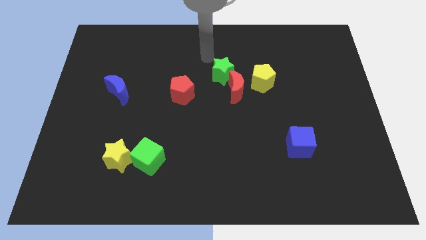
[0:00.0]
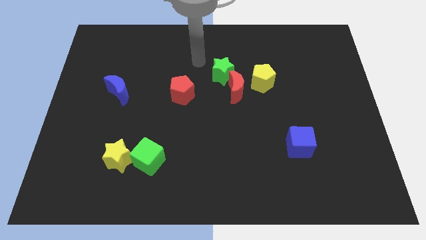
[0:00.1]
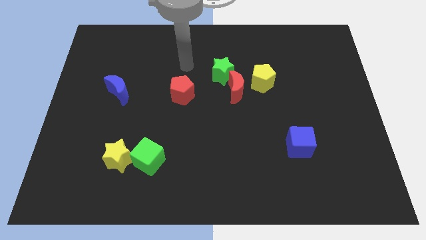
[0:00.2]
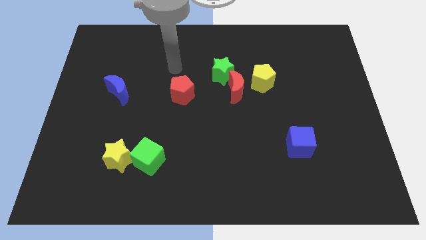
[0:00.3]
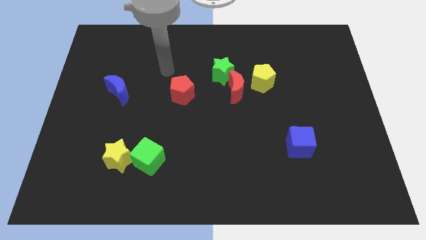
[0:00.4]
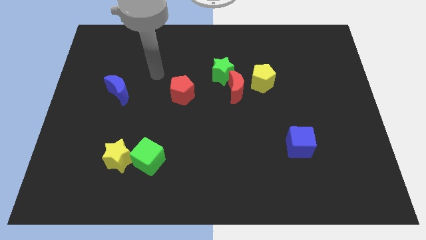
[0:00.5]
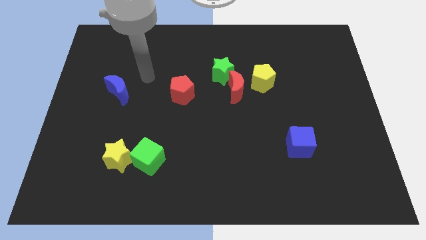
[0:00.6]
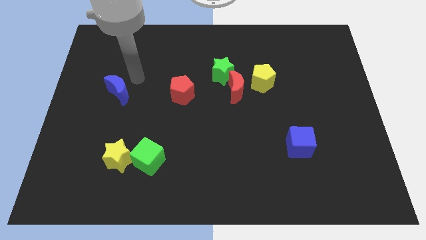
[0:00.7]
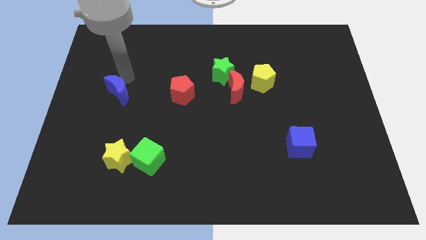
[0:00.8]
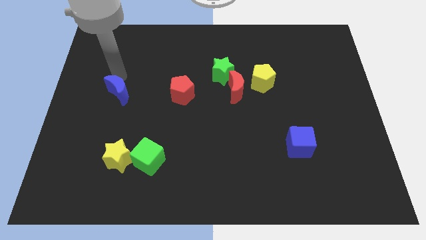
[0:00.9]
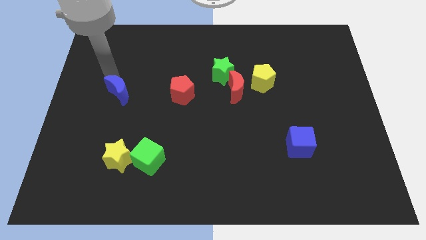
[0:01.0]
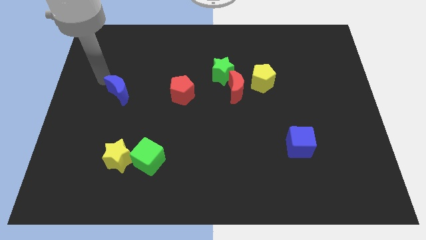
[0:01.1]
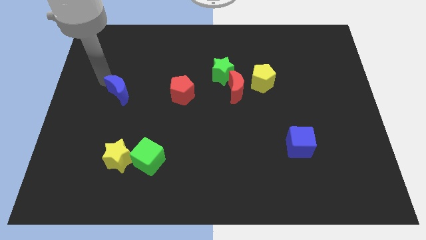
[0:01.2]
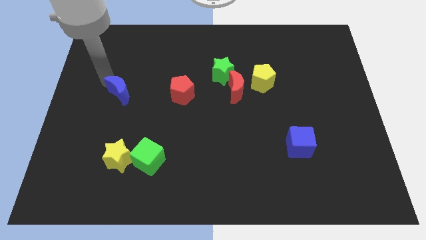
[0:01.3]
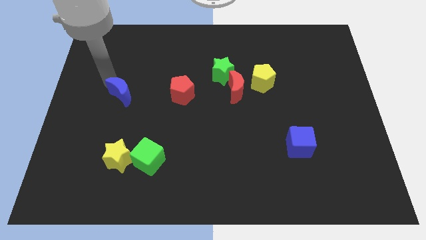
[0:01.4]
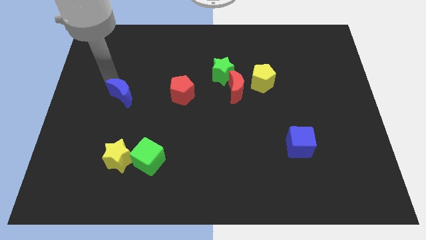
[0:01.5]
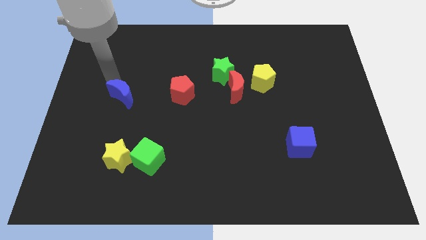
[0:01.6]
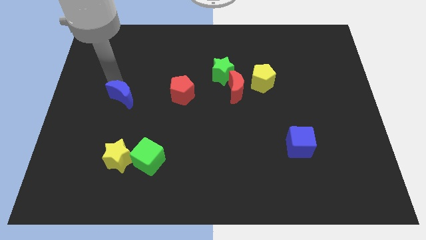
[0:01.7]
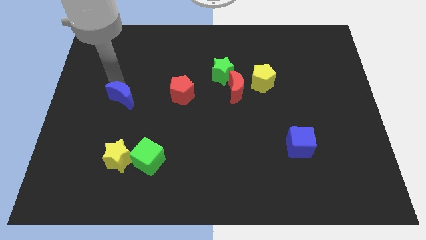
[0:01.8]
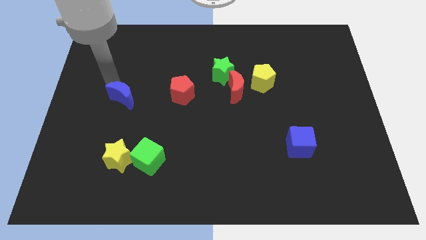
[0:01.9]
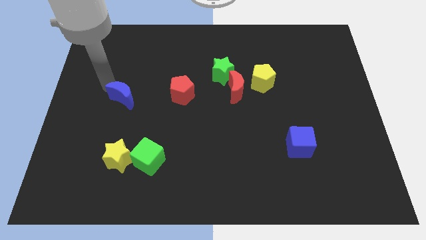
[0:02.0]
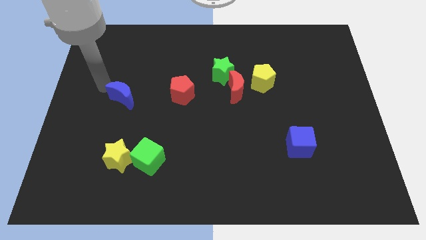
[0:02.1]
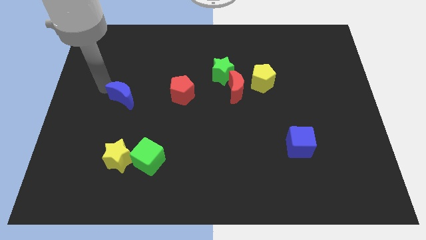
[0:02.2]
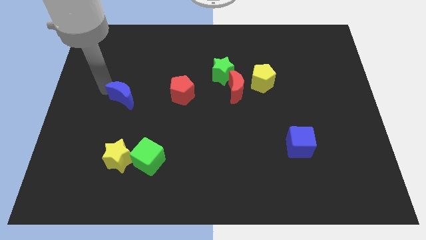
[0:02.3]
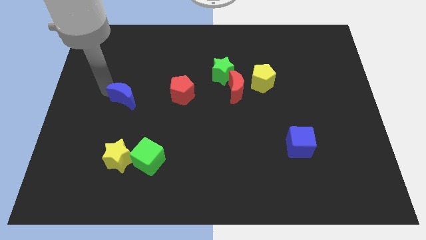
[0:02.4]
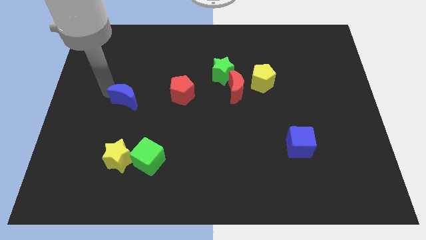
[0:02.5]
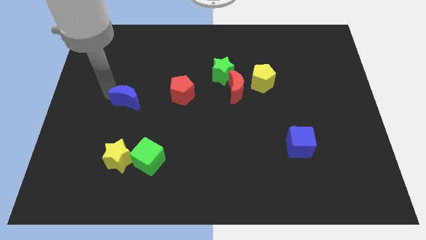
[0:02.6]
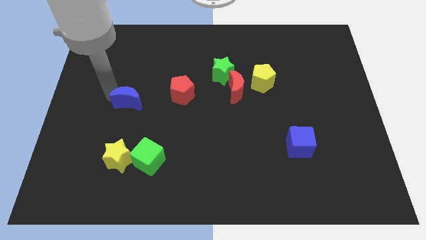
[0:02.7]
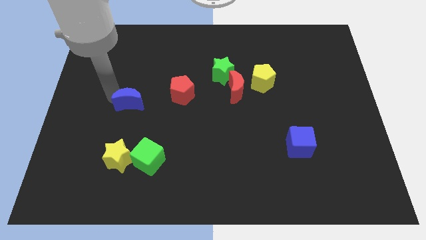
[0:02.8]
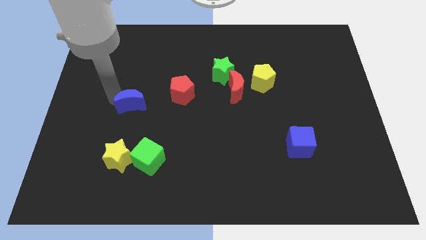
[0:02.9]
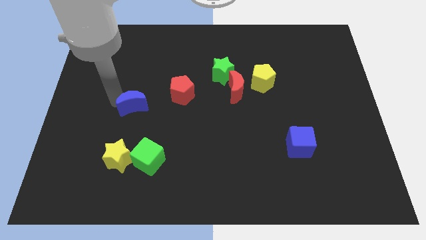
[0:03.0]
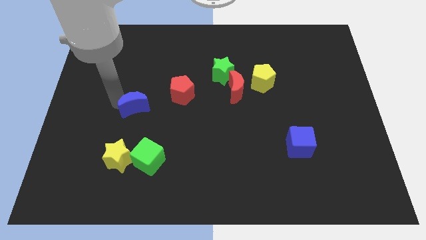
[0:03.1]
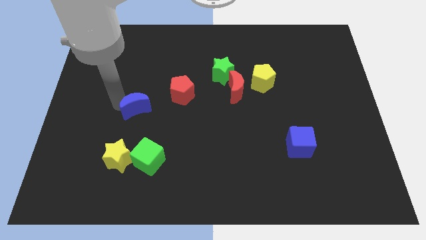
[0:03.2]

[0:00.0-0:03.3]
slightly move the blue moon downwards and then right

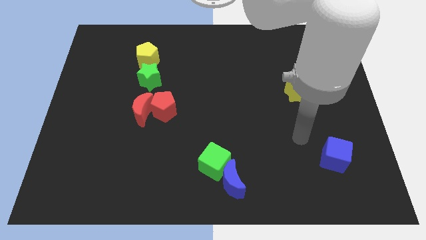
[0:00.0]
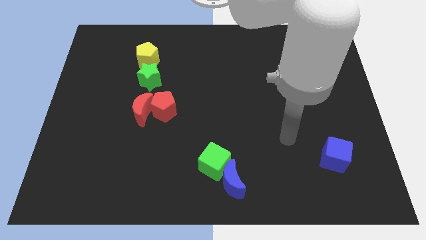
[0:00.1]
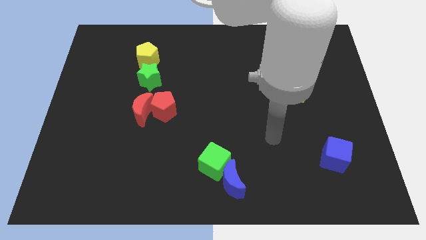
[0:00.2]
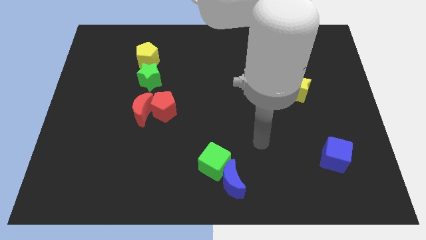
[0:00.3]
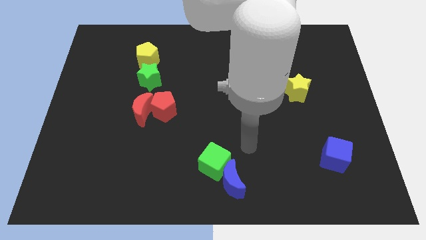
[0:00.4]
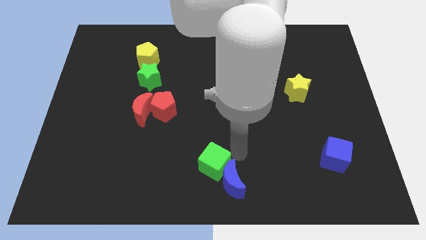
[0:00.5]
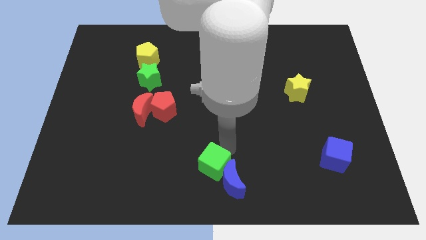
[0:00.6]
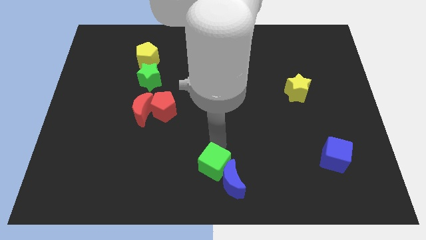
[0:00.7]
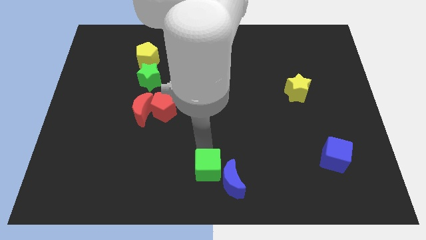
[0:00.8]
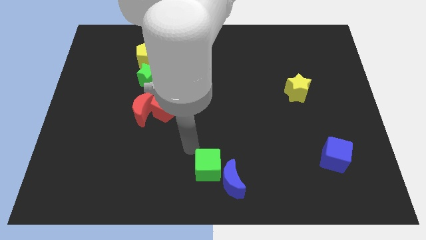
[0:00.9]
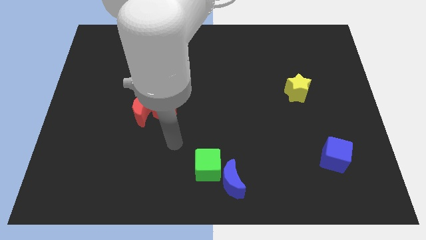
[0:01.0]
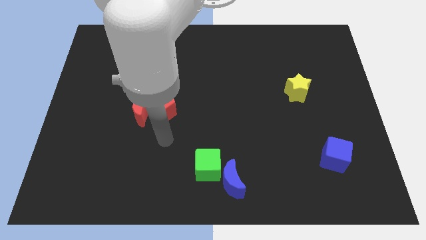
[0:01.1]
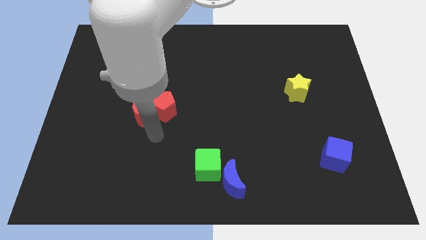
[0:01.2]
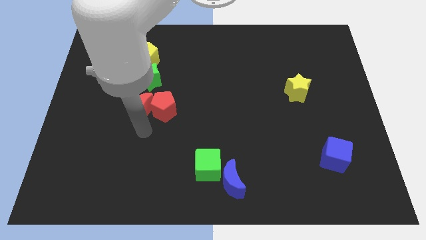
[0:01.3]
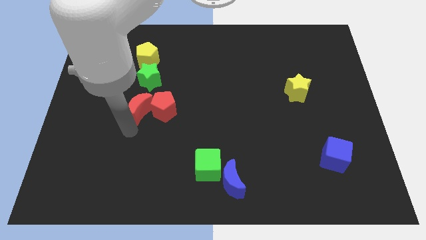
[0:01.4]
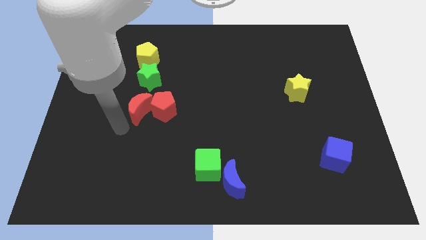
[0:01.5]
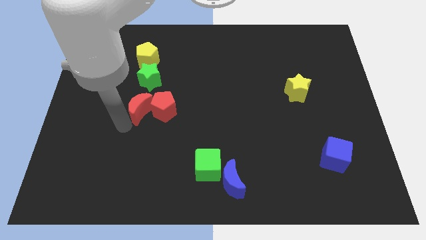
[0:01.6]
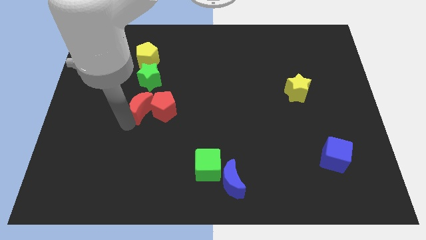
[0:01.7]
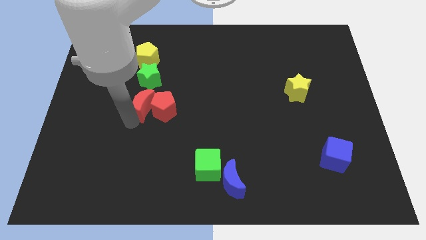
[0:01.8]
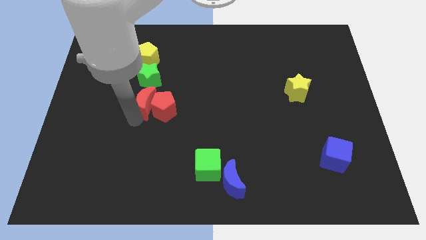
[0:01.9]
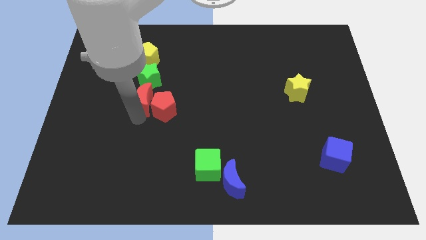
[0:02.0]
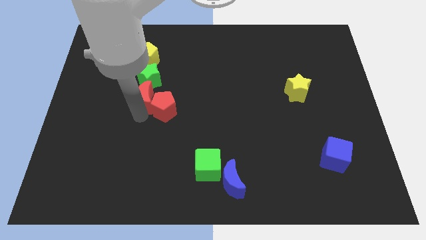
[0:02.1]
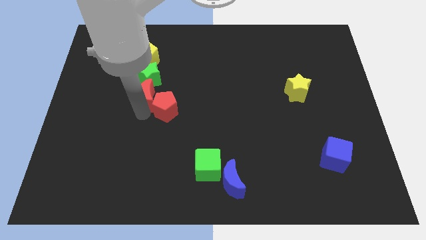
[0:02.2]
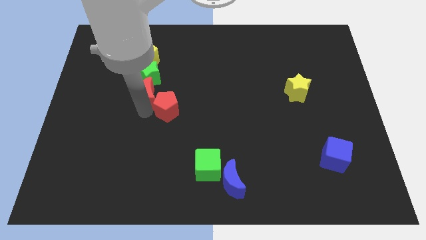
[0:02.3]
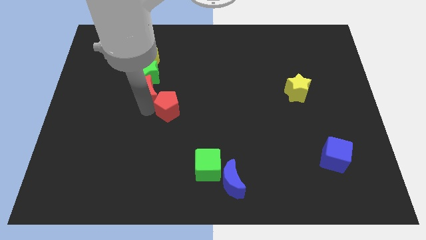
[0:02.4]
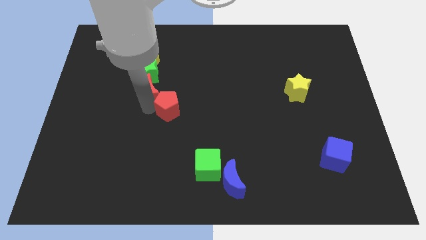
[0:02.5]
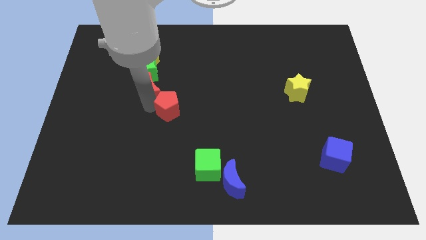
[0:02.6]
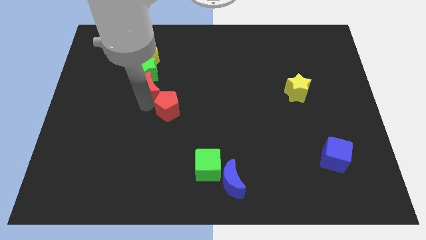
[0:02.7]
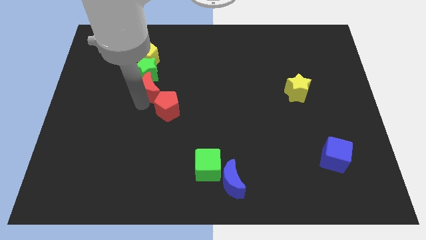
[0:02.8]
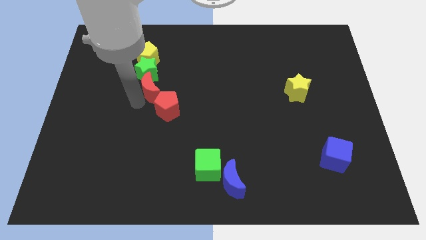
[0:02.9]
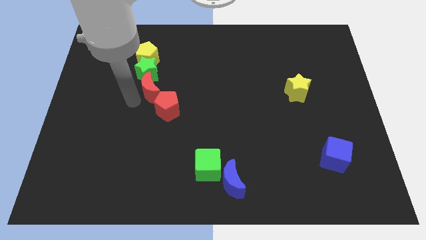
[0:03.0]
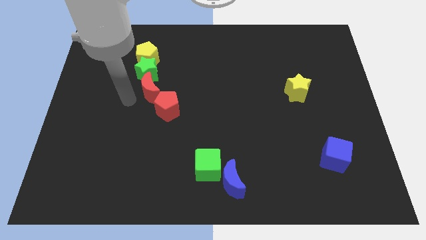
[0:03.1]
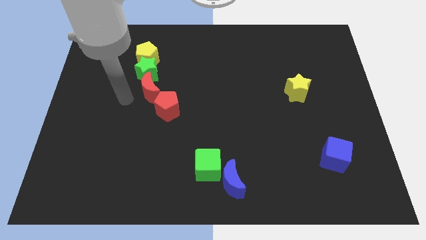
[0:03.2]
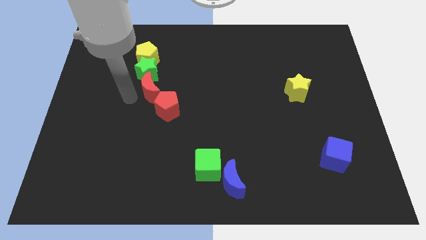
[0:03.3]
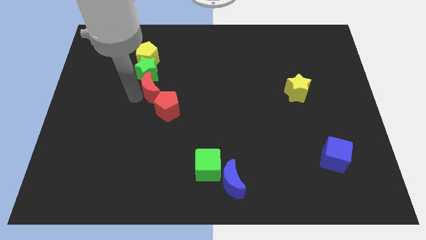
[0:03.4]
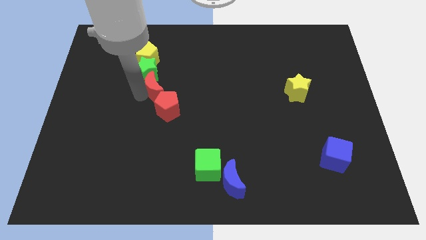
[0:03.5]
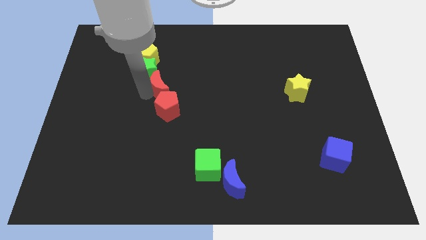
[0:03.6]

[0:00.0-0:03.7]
push the red moon diagonally up and to the right slightly
